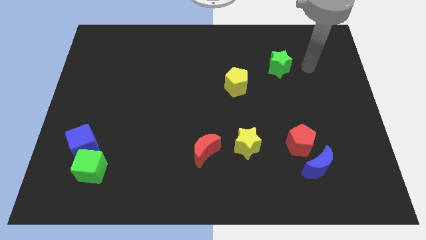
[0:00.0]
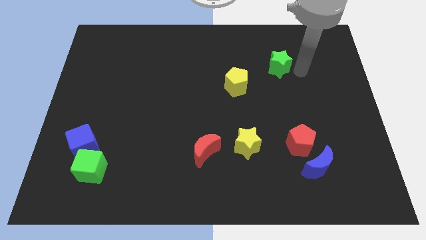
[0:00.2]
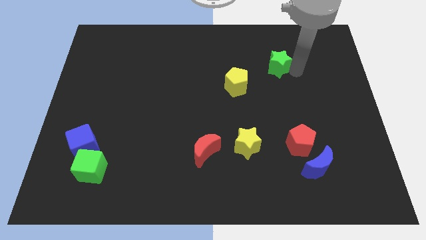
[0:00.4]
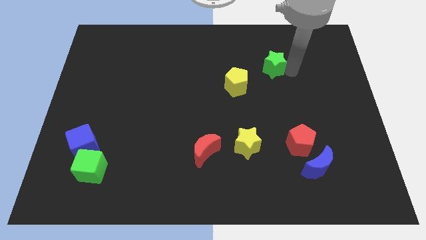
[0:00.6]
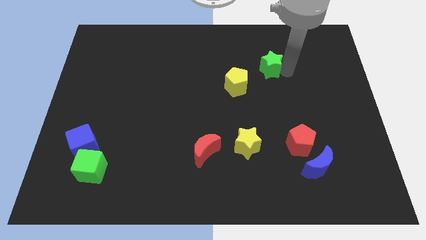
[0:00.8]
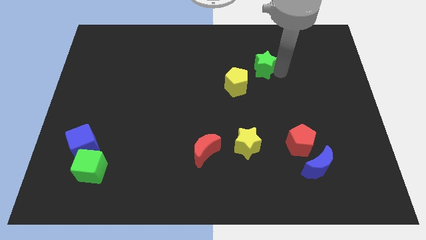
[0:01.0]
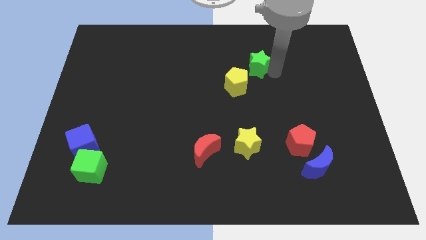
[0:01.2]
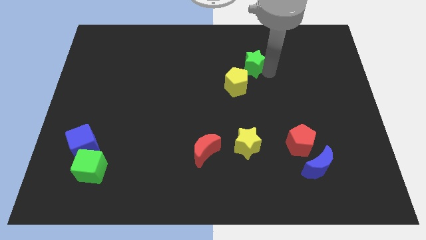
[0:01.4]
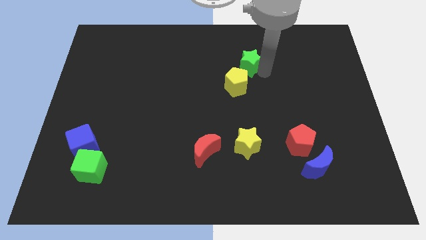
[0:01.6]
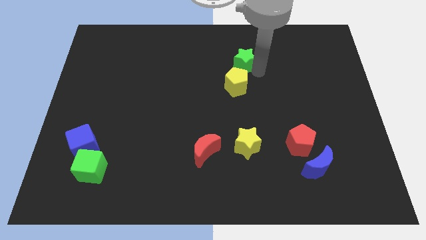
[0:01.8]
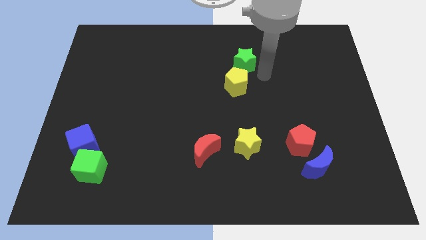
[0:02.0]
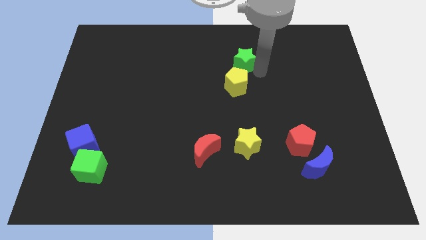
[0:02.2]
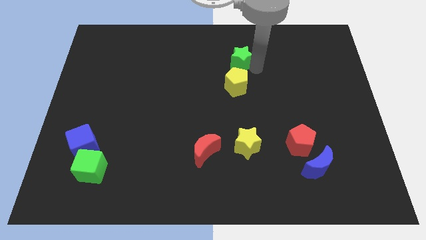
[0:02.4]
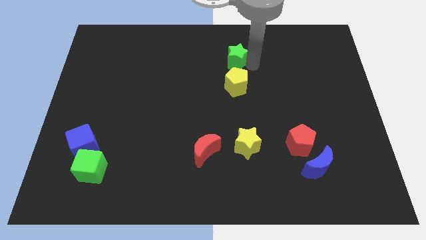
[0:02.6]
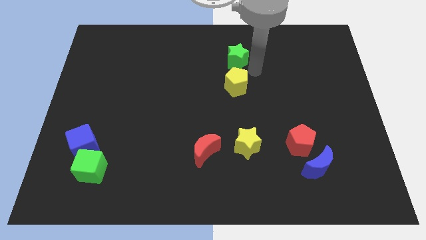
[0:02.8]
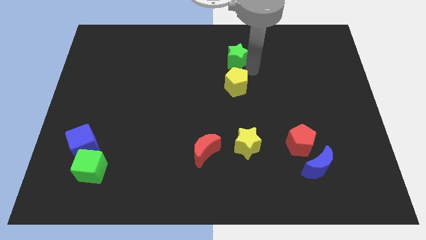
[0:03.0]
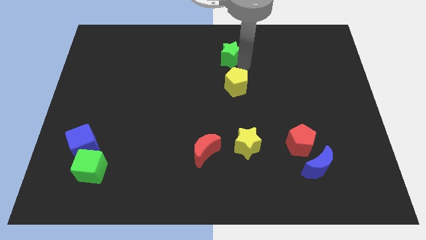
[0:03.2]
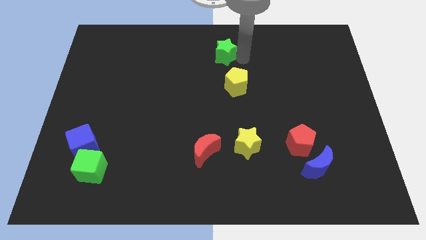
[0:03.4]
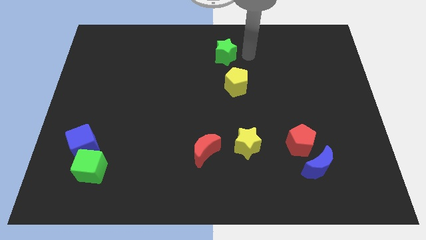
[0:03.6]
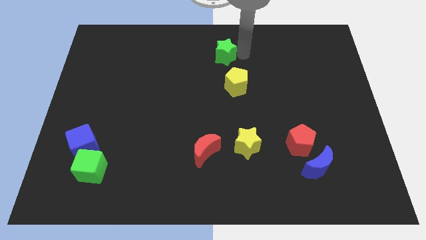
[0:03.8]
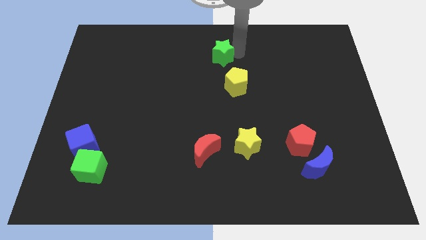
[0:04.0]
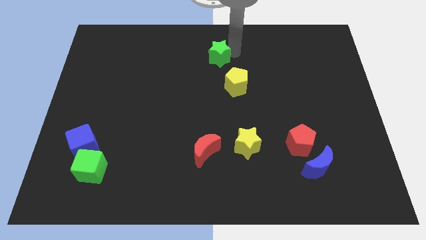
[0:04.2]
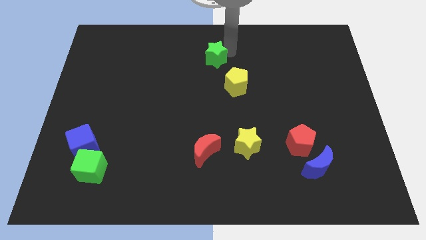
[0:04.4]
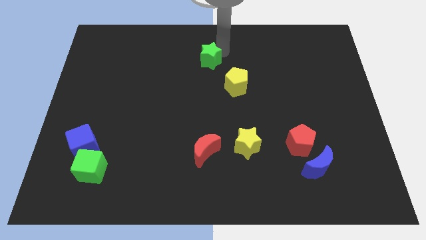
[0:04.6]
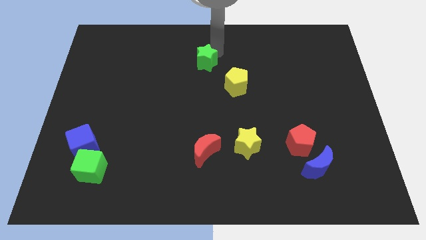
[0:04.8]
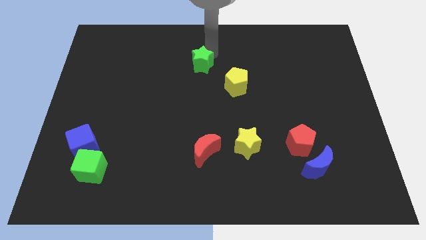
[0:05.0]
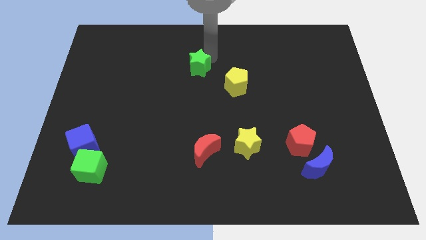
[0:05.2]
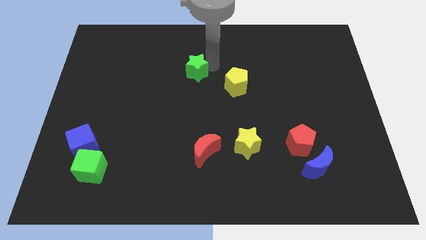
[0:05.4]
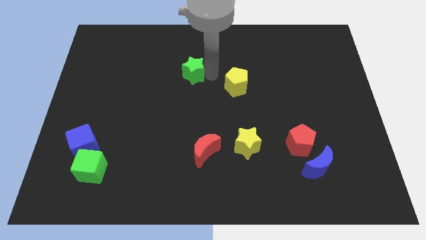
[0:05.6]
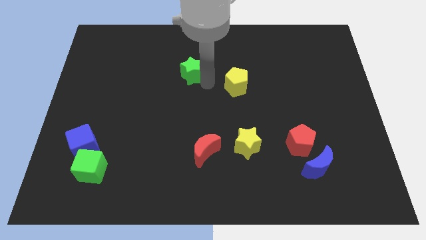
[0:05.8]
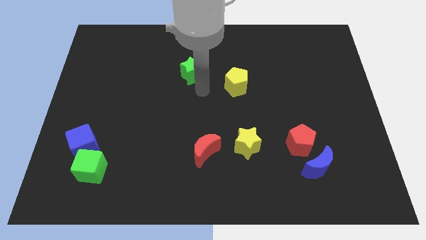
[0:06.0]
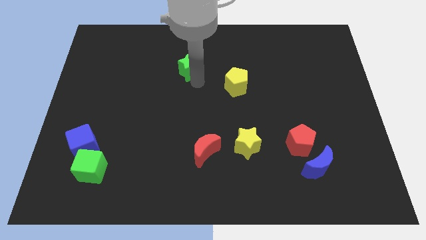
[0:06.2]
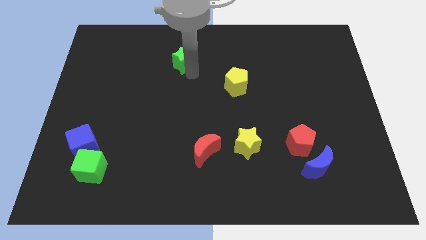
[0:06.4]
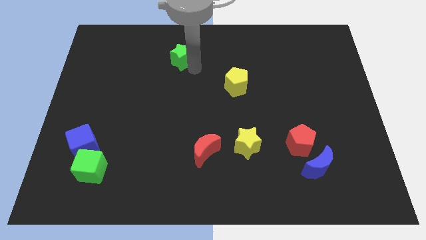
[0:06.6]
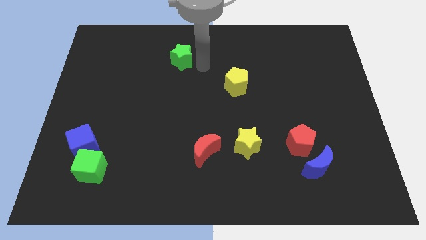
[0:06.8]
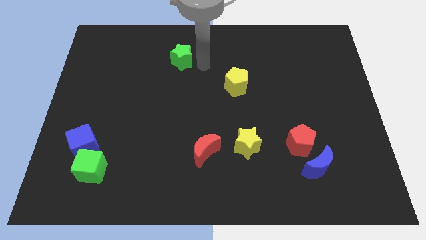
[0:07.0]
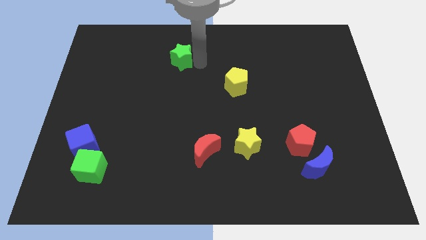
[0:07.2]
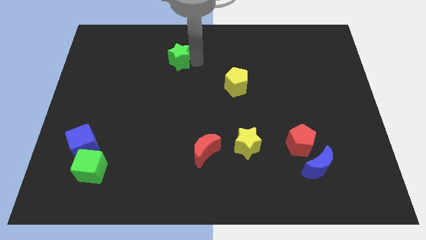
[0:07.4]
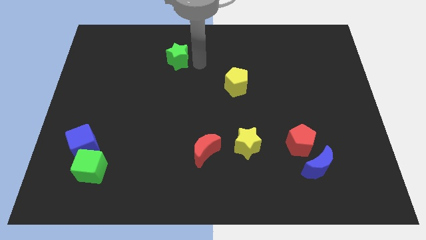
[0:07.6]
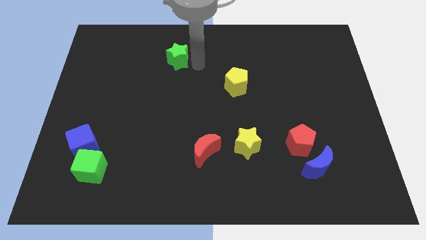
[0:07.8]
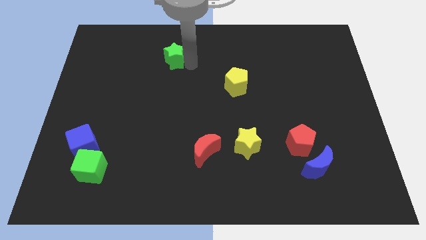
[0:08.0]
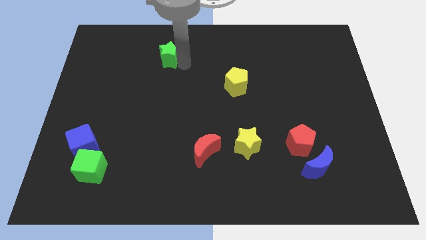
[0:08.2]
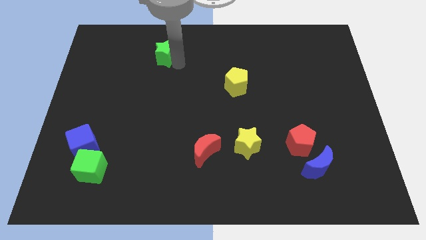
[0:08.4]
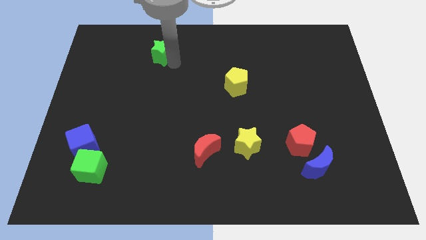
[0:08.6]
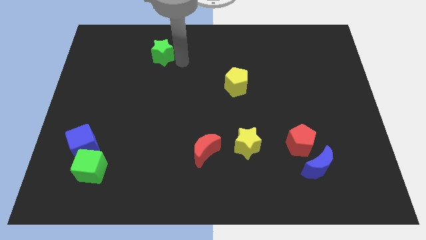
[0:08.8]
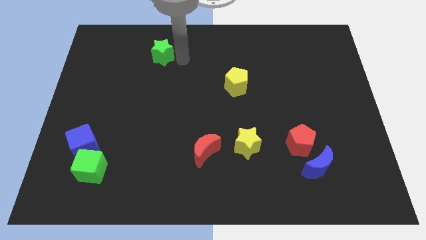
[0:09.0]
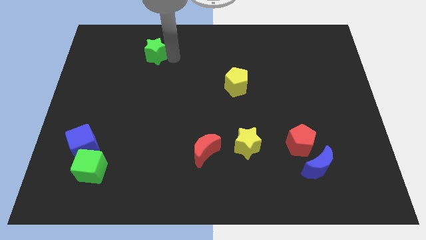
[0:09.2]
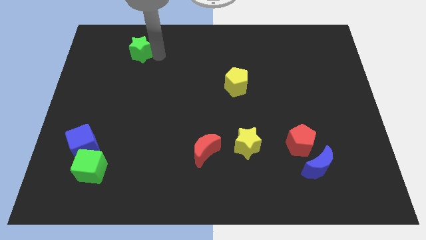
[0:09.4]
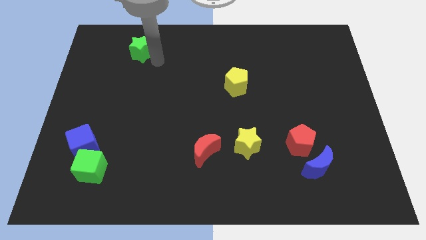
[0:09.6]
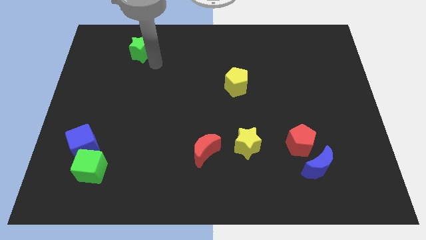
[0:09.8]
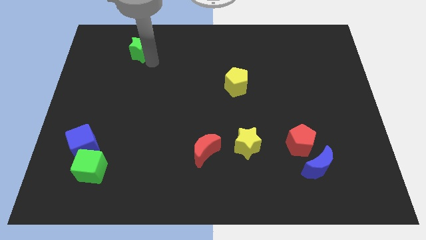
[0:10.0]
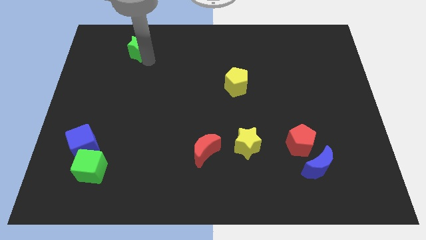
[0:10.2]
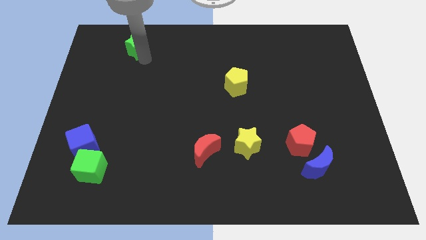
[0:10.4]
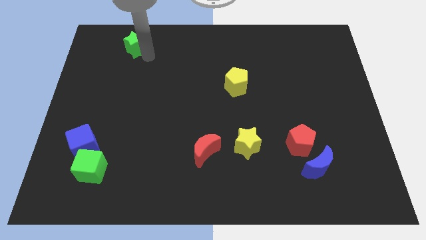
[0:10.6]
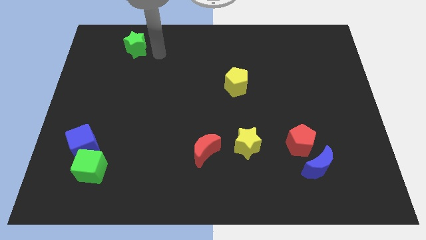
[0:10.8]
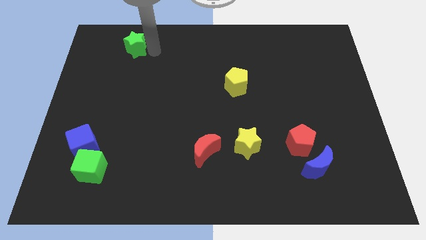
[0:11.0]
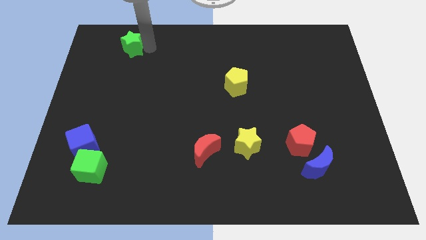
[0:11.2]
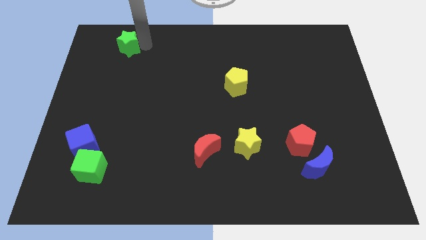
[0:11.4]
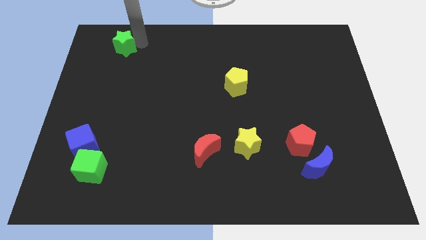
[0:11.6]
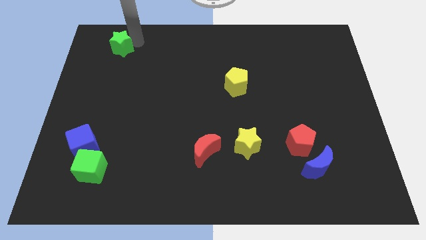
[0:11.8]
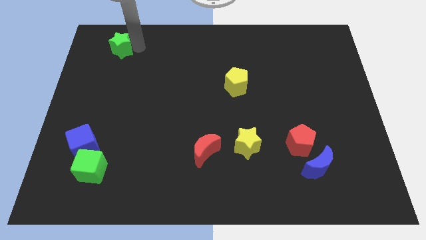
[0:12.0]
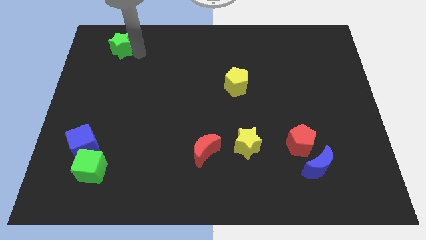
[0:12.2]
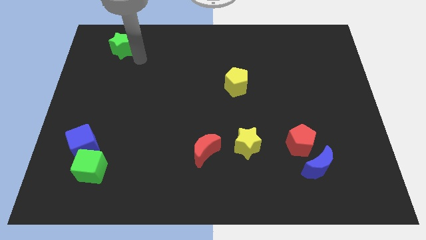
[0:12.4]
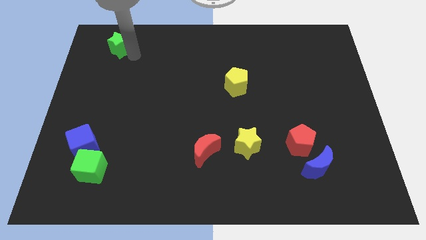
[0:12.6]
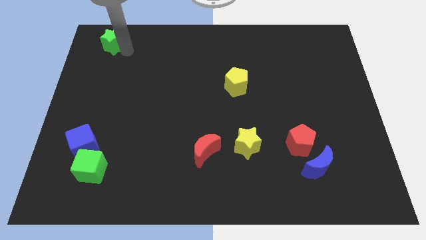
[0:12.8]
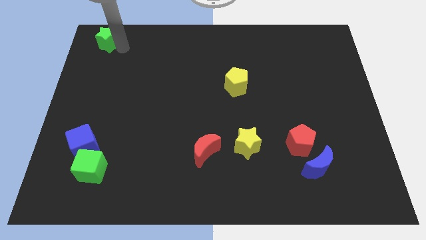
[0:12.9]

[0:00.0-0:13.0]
push the green star to the top left corner

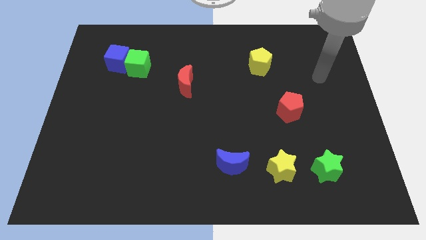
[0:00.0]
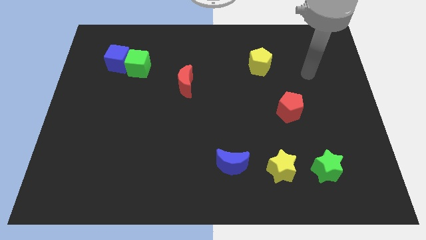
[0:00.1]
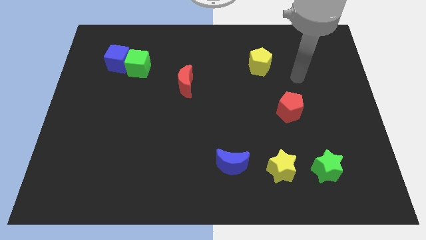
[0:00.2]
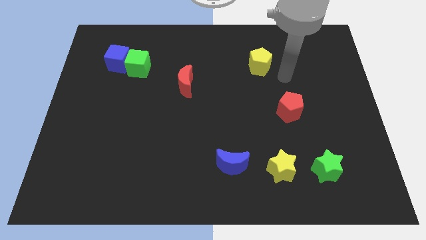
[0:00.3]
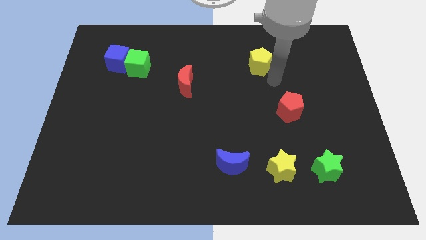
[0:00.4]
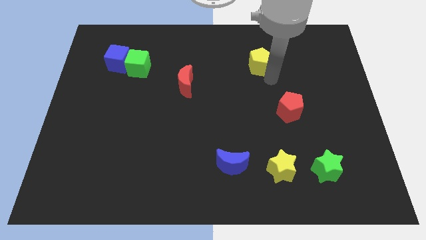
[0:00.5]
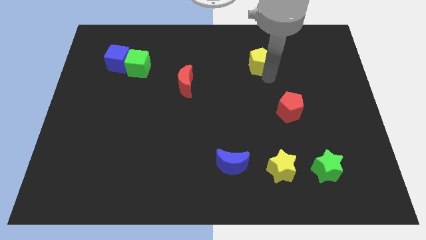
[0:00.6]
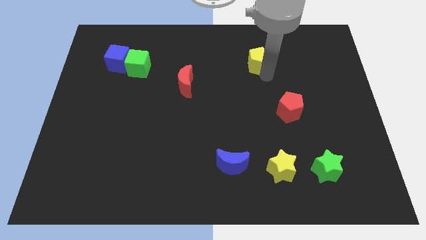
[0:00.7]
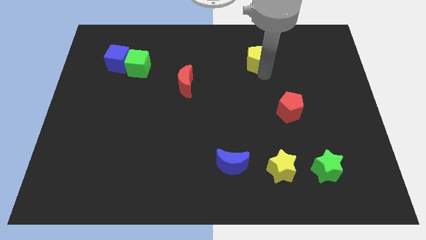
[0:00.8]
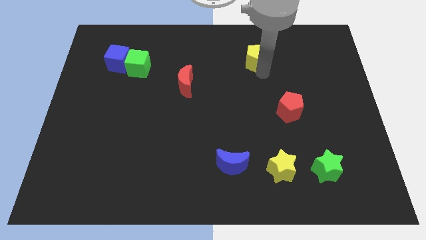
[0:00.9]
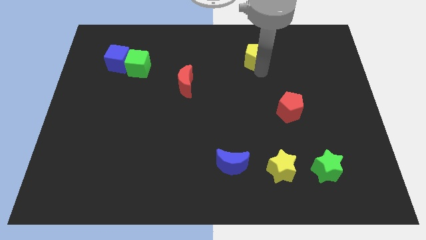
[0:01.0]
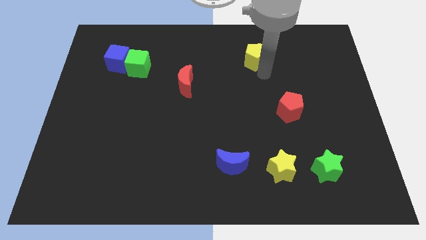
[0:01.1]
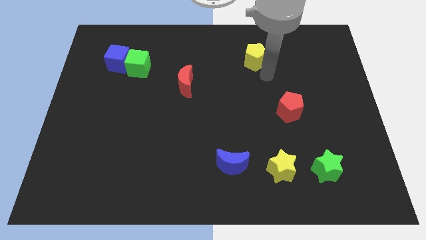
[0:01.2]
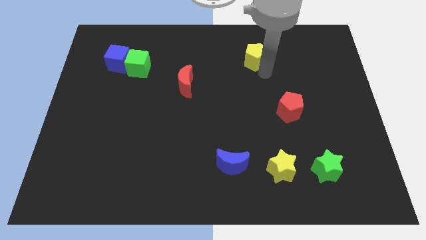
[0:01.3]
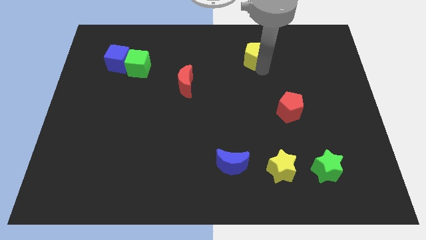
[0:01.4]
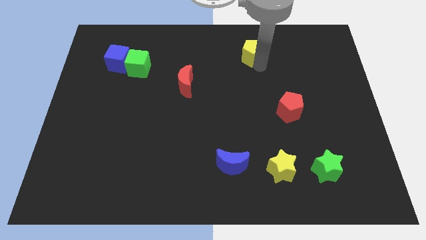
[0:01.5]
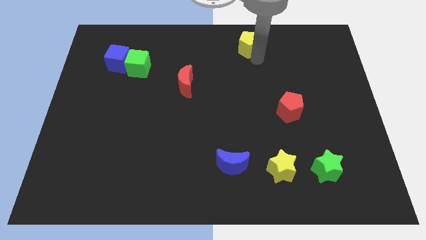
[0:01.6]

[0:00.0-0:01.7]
push the yellow pentagon to the top
